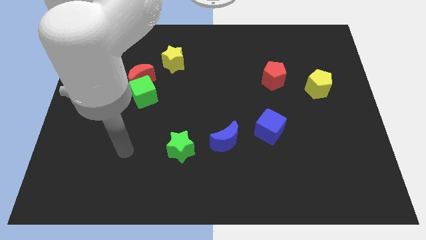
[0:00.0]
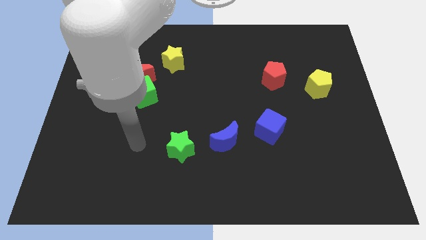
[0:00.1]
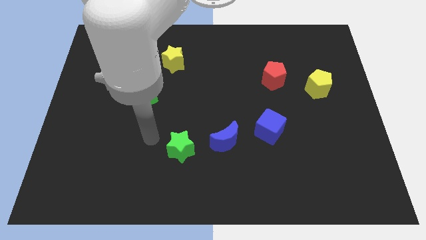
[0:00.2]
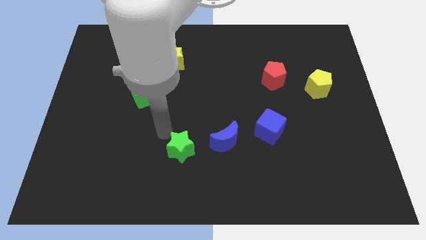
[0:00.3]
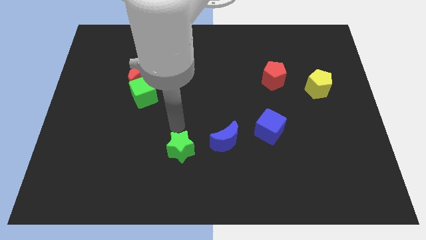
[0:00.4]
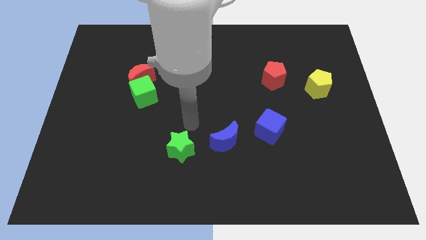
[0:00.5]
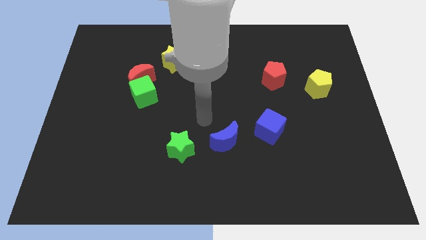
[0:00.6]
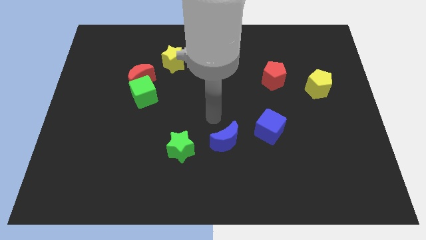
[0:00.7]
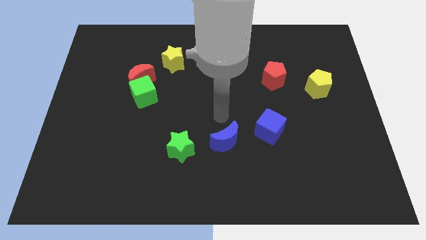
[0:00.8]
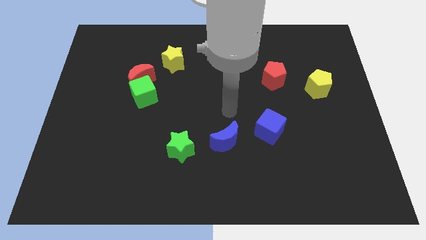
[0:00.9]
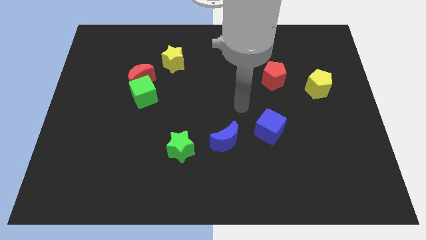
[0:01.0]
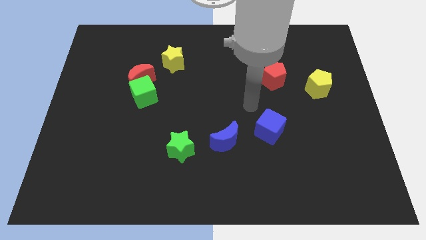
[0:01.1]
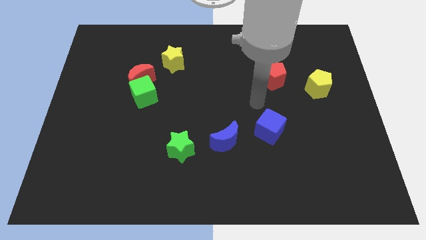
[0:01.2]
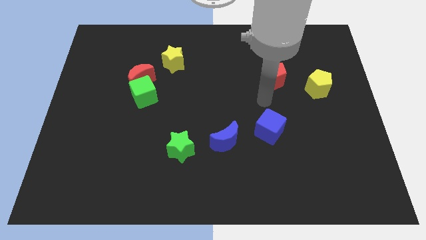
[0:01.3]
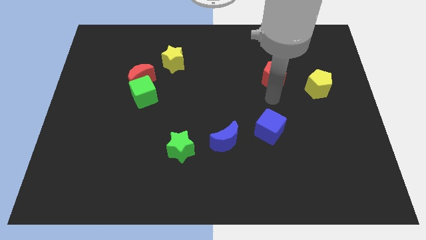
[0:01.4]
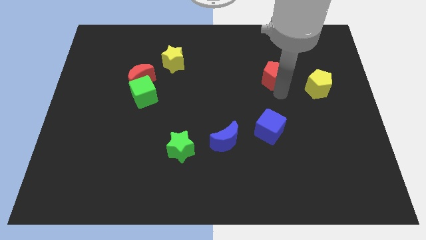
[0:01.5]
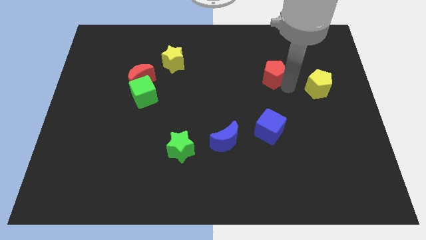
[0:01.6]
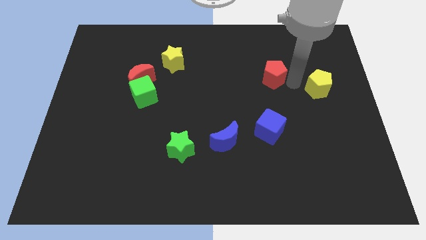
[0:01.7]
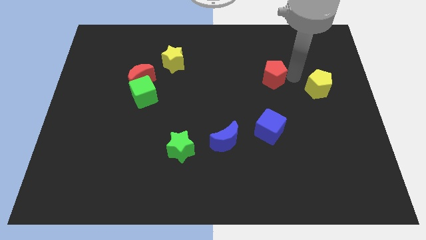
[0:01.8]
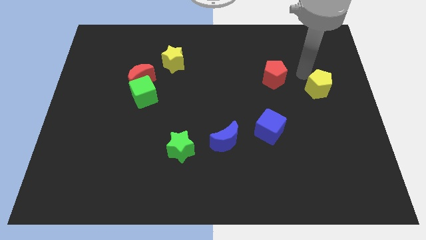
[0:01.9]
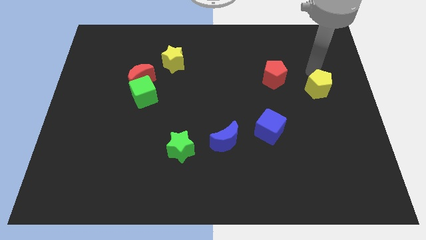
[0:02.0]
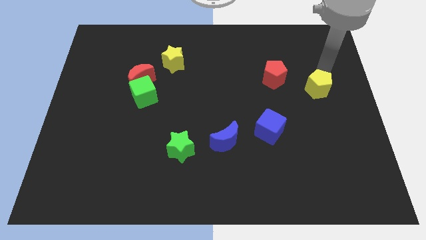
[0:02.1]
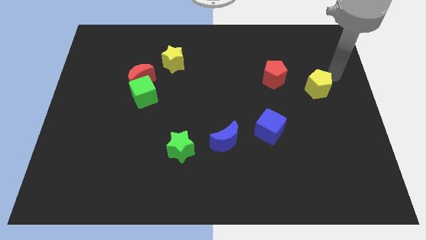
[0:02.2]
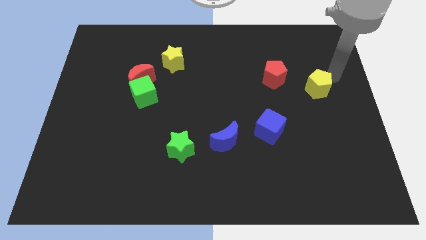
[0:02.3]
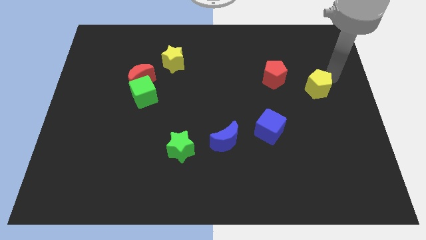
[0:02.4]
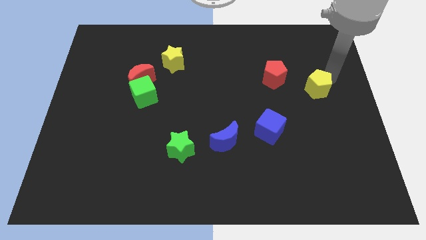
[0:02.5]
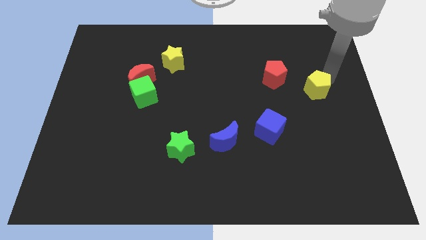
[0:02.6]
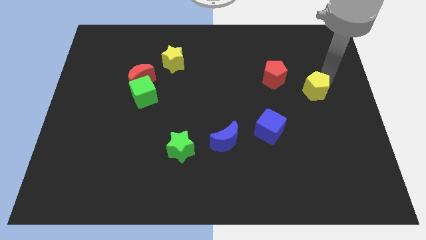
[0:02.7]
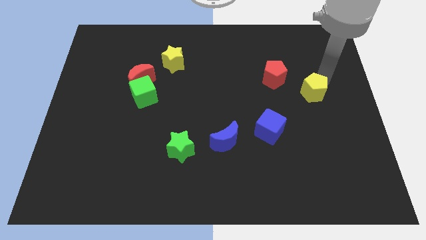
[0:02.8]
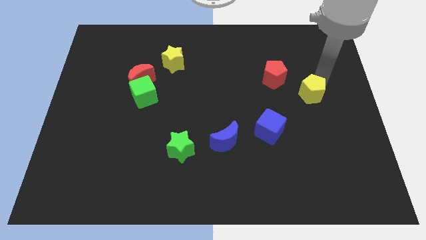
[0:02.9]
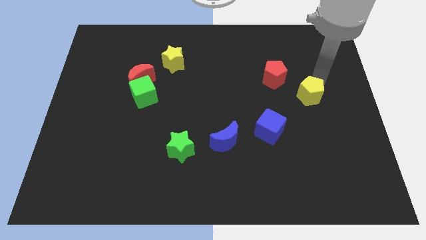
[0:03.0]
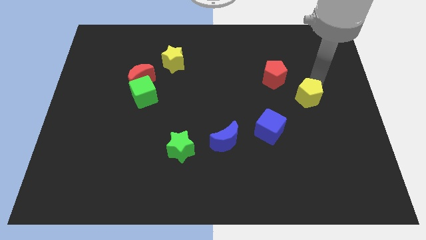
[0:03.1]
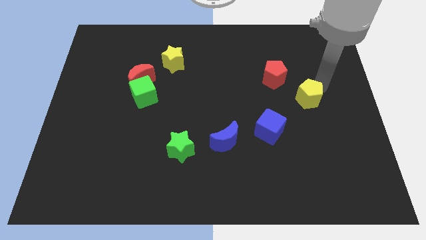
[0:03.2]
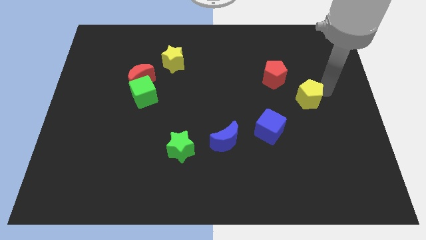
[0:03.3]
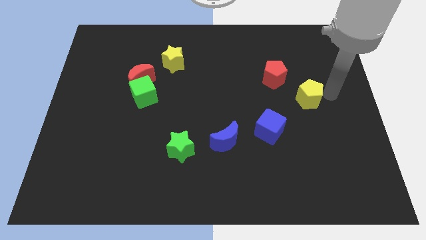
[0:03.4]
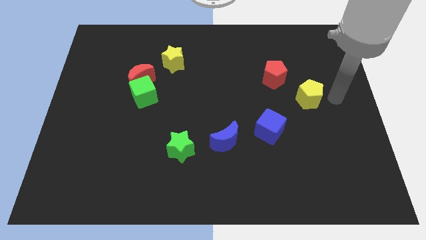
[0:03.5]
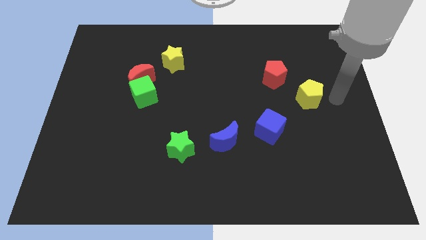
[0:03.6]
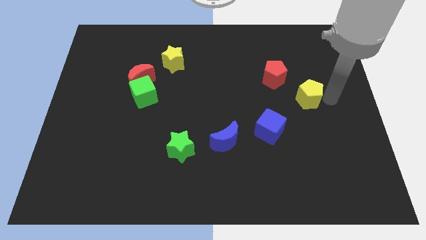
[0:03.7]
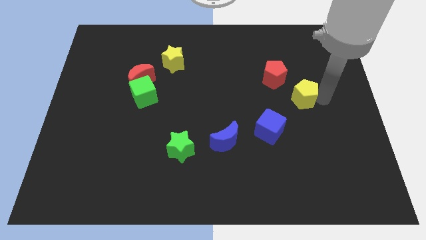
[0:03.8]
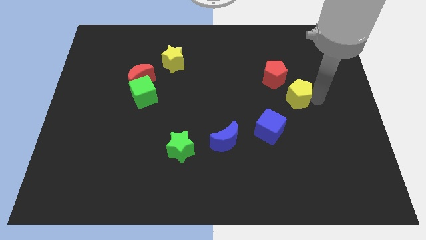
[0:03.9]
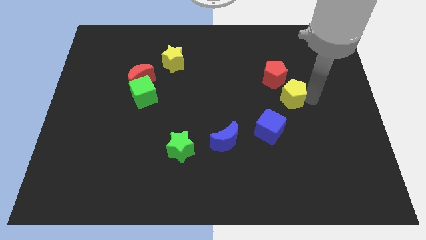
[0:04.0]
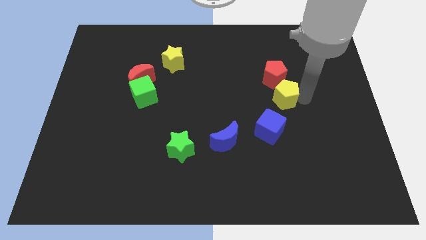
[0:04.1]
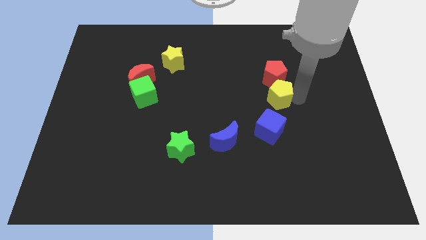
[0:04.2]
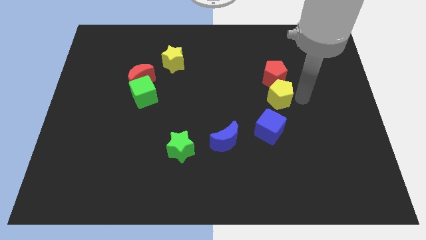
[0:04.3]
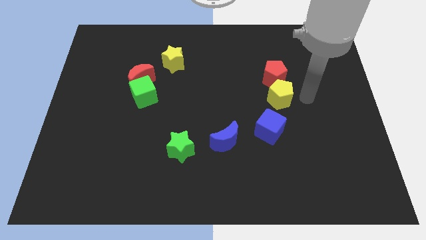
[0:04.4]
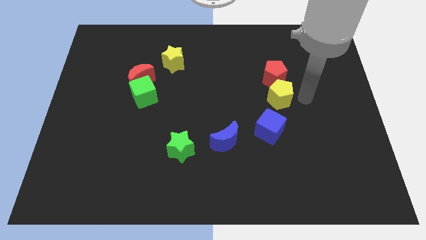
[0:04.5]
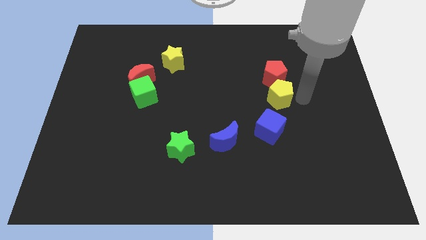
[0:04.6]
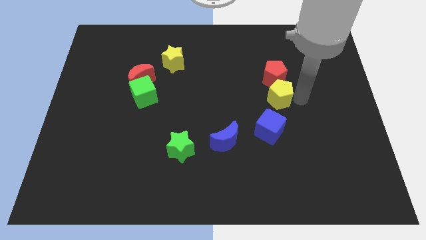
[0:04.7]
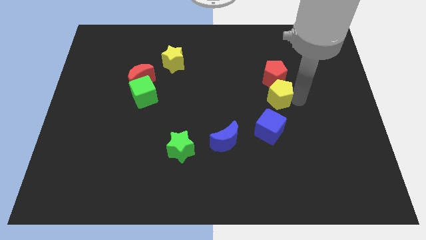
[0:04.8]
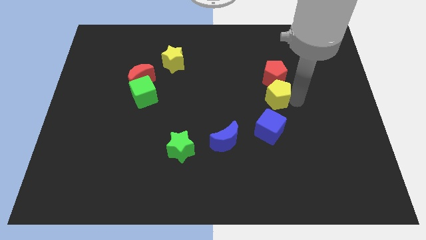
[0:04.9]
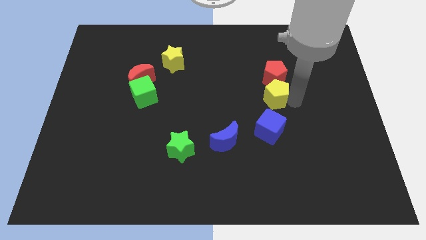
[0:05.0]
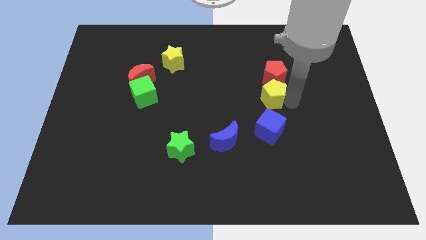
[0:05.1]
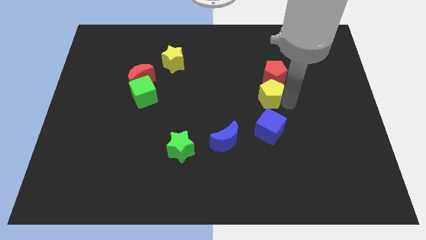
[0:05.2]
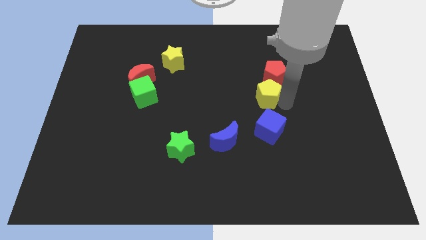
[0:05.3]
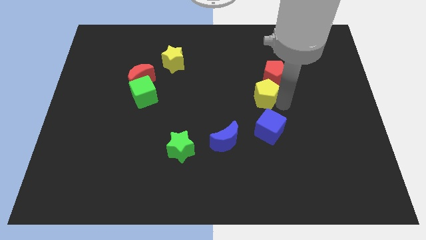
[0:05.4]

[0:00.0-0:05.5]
push the yellow pentagon to the center

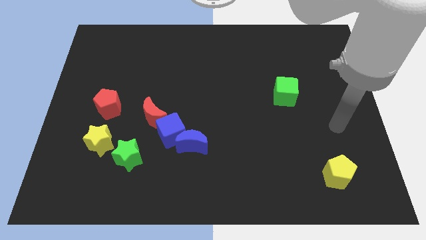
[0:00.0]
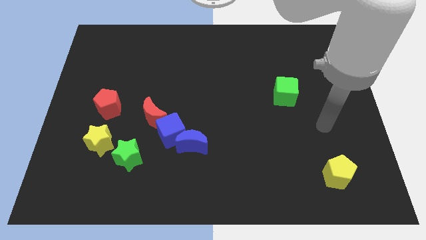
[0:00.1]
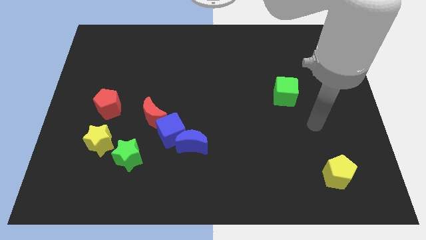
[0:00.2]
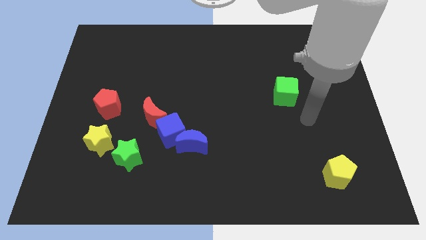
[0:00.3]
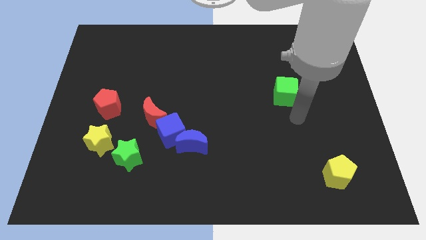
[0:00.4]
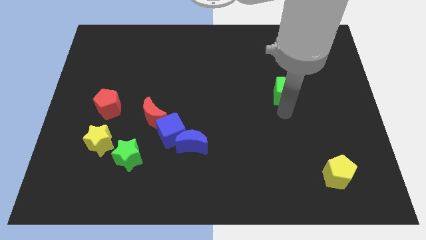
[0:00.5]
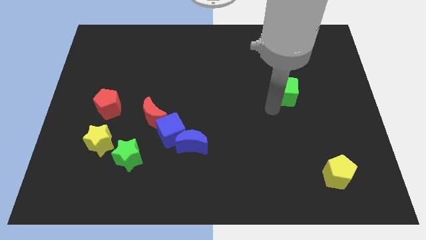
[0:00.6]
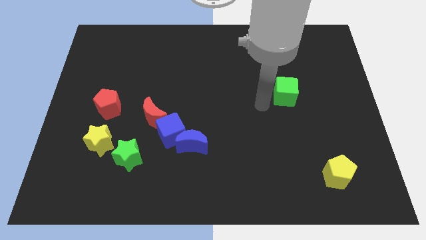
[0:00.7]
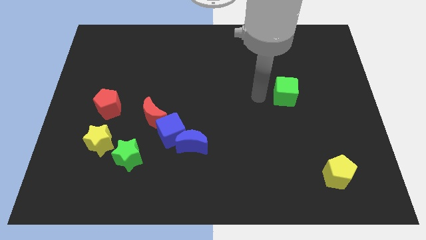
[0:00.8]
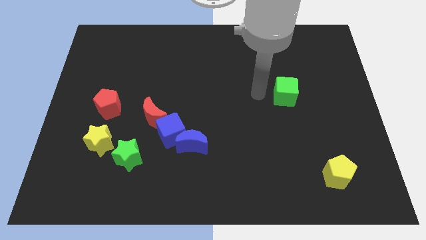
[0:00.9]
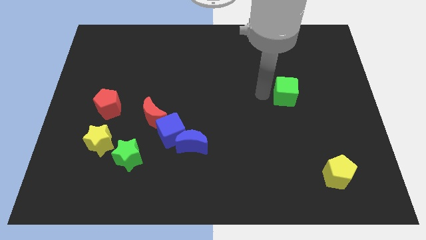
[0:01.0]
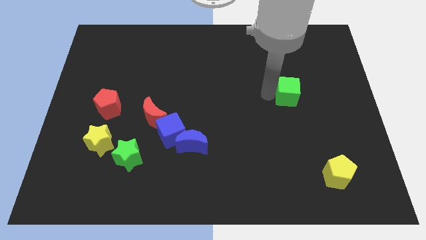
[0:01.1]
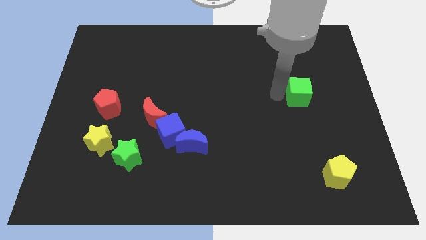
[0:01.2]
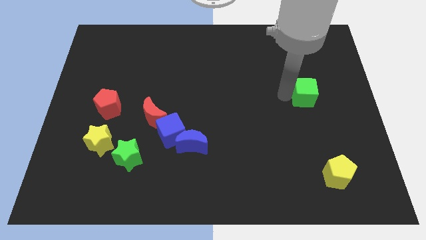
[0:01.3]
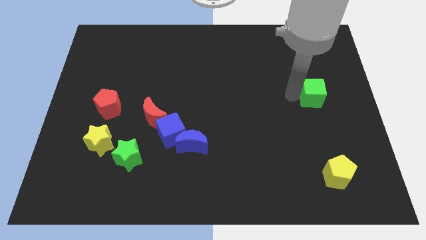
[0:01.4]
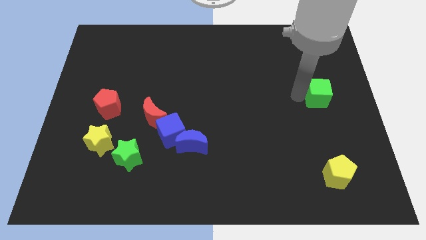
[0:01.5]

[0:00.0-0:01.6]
move the green cube to the center right

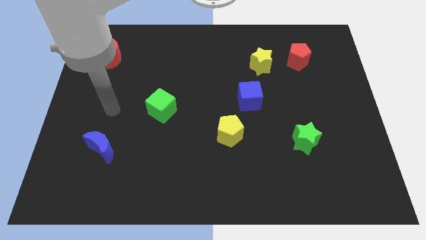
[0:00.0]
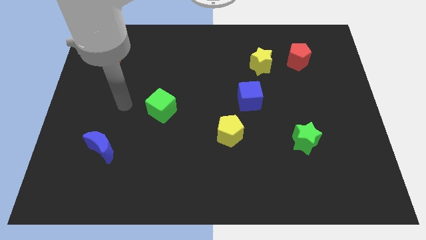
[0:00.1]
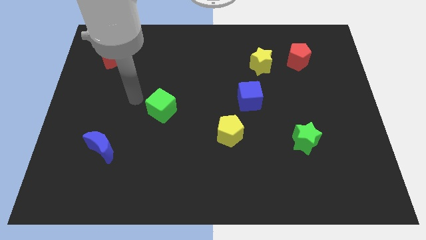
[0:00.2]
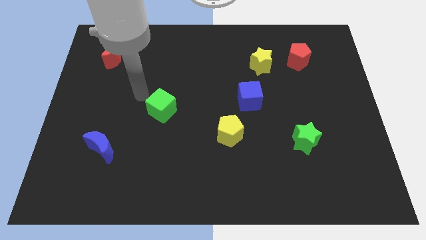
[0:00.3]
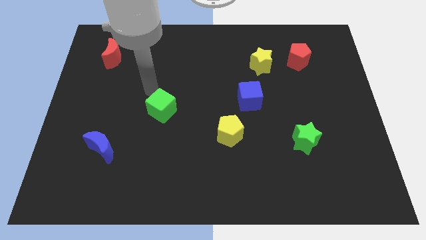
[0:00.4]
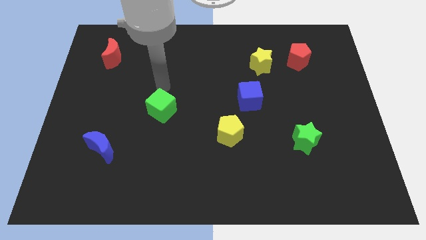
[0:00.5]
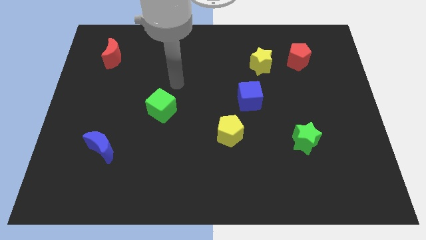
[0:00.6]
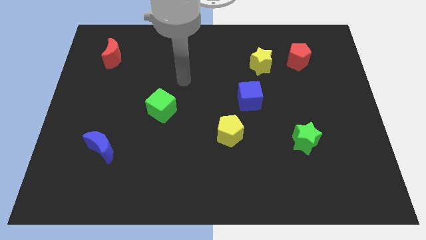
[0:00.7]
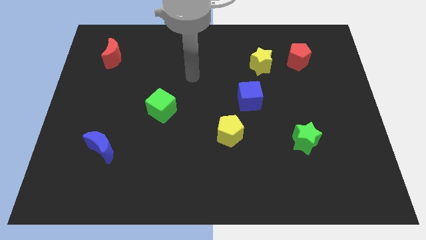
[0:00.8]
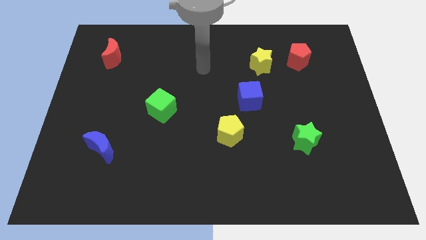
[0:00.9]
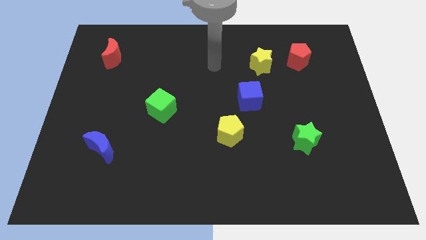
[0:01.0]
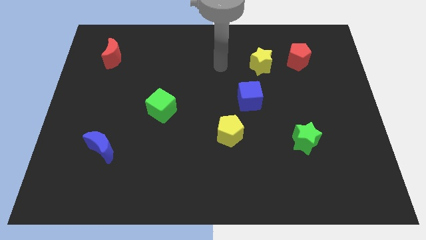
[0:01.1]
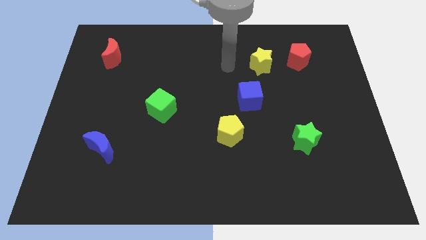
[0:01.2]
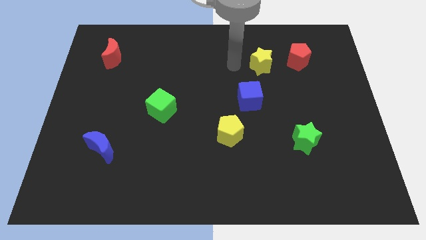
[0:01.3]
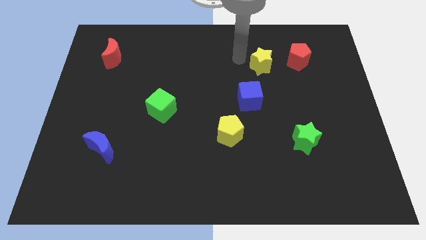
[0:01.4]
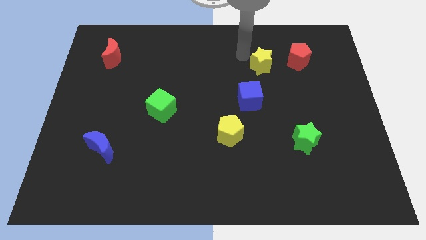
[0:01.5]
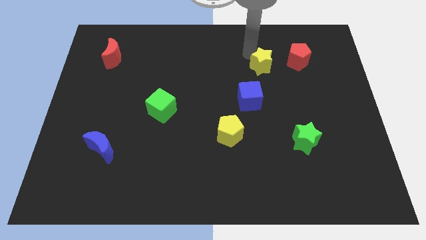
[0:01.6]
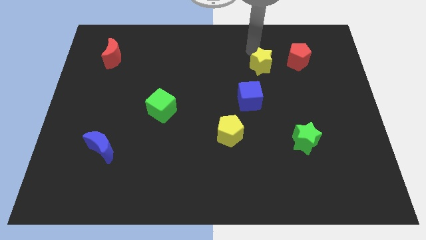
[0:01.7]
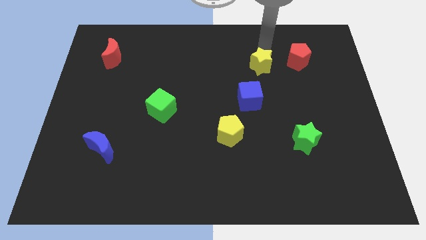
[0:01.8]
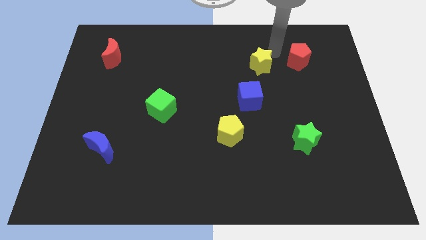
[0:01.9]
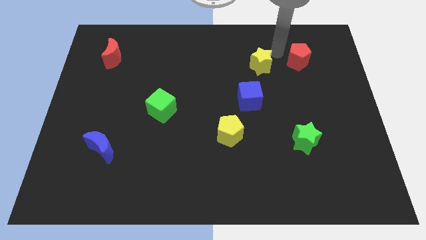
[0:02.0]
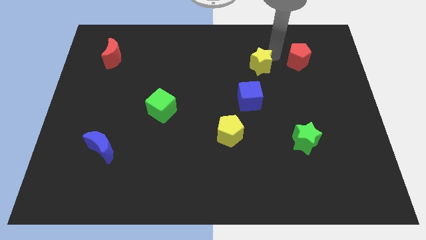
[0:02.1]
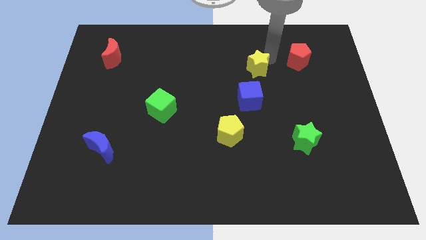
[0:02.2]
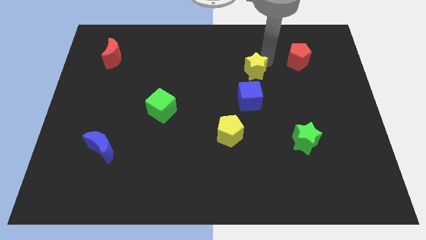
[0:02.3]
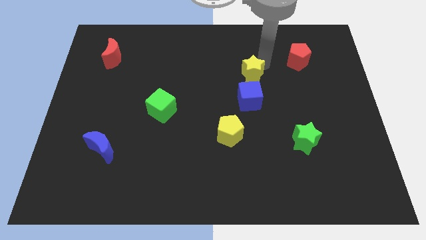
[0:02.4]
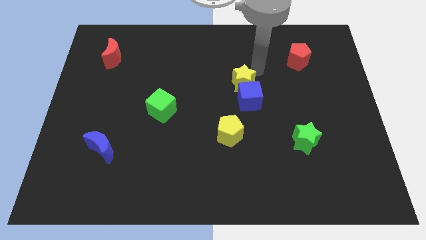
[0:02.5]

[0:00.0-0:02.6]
put the yellow star to the center
